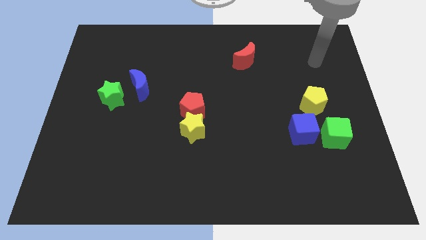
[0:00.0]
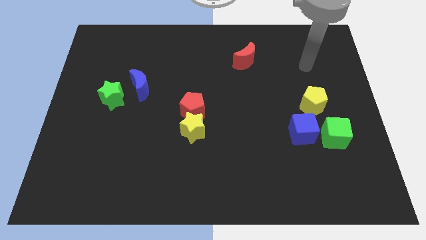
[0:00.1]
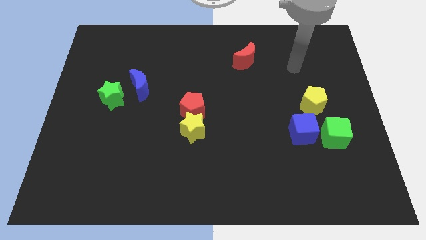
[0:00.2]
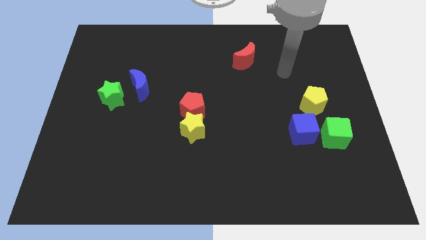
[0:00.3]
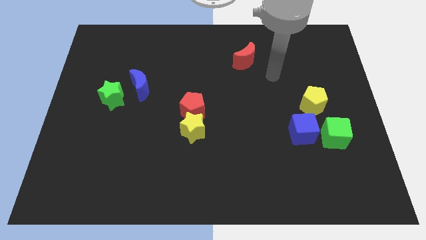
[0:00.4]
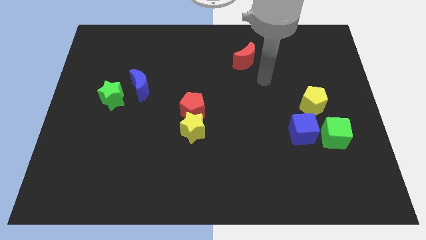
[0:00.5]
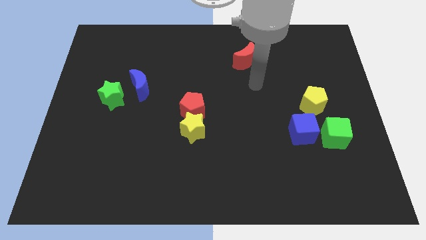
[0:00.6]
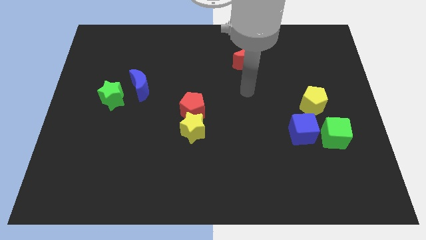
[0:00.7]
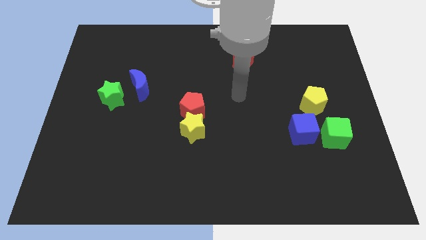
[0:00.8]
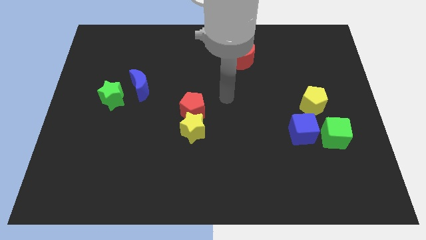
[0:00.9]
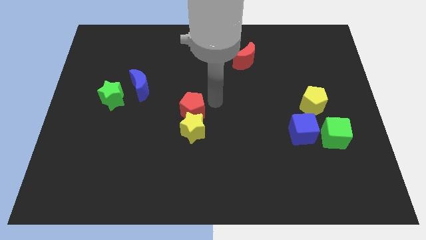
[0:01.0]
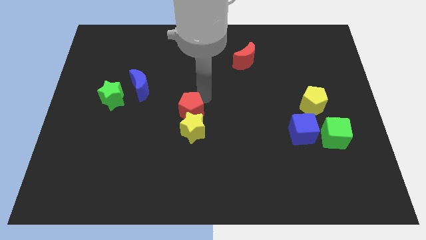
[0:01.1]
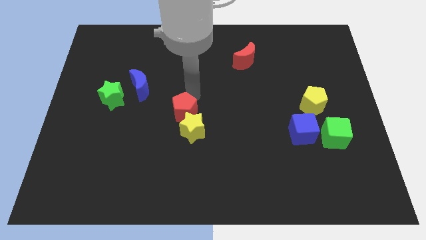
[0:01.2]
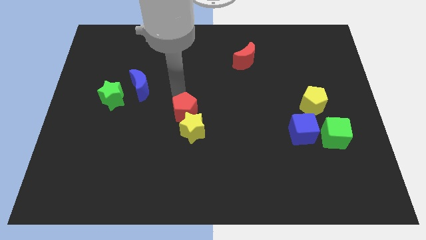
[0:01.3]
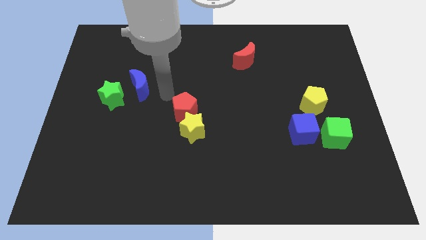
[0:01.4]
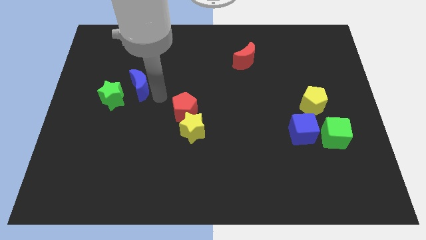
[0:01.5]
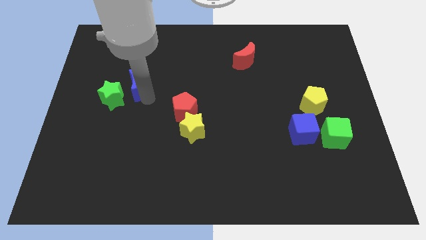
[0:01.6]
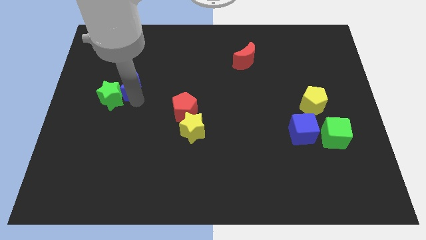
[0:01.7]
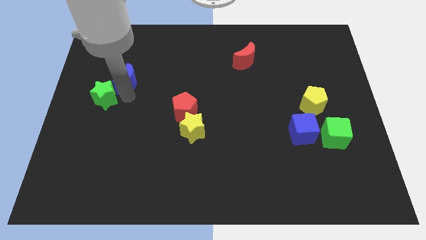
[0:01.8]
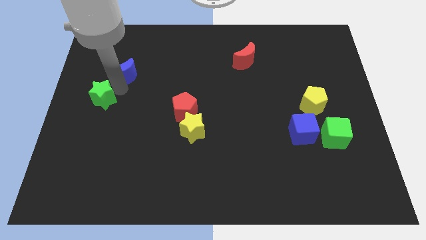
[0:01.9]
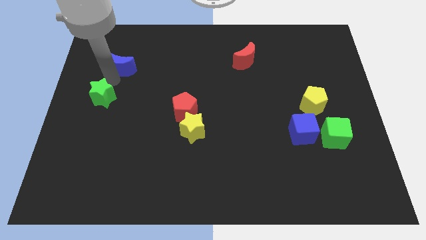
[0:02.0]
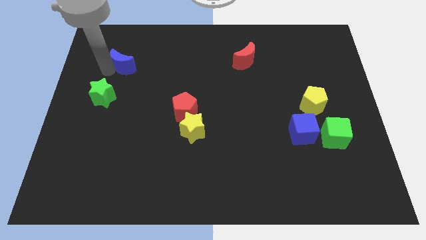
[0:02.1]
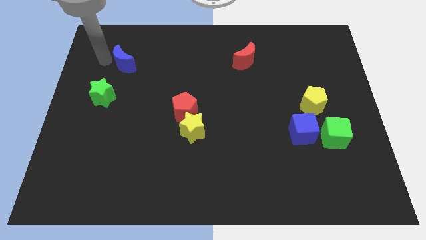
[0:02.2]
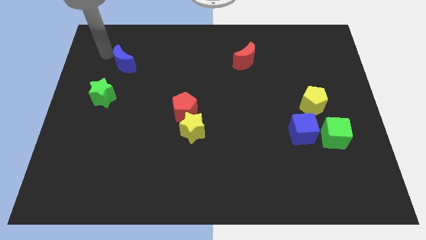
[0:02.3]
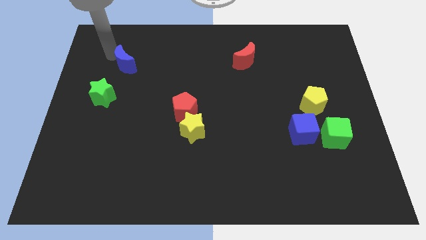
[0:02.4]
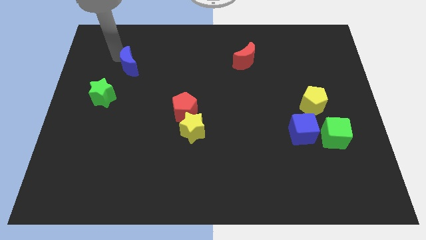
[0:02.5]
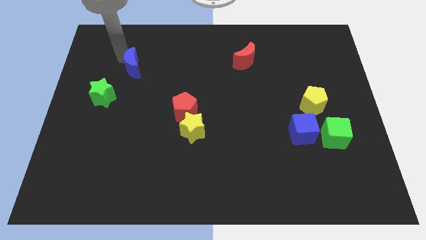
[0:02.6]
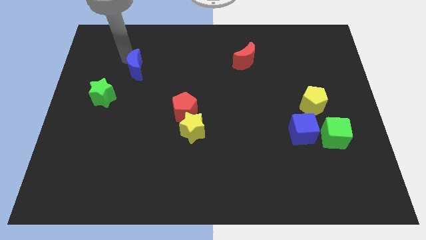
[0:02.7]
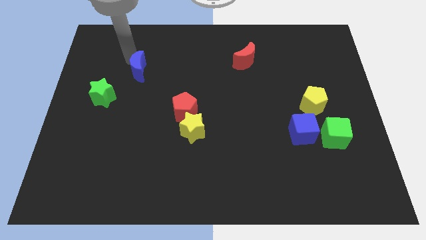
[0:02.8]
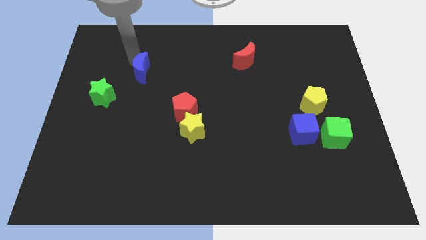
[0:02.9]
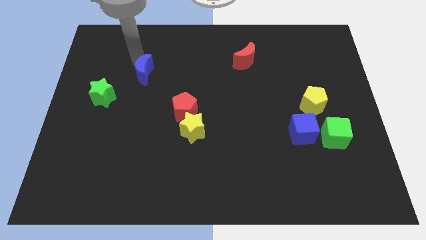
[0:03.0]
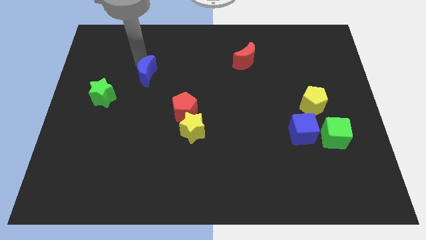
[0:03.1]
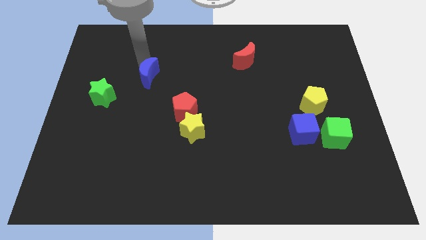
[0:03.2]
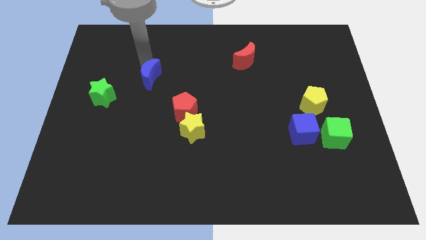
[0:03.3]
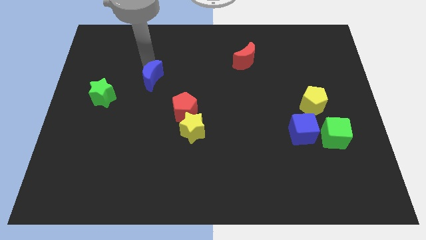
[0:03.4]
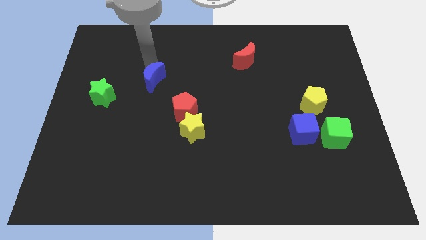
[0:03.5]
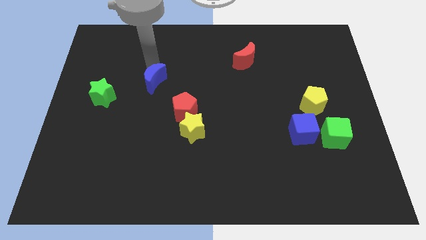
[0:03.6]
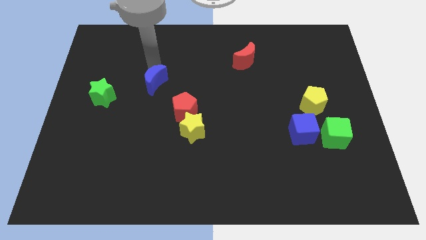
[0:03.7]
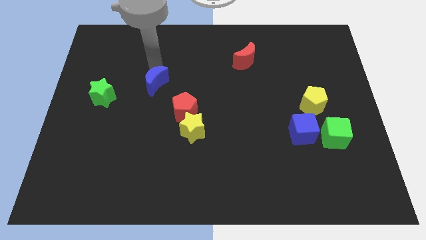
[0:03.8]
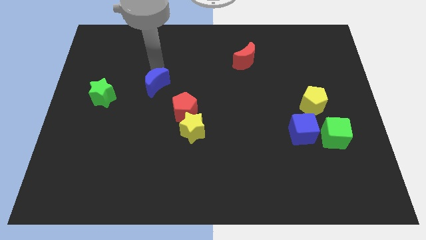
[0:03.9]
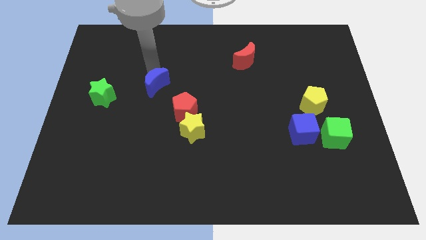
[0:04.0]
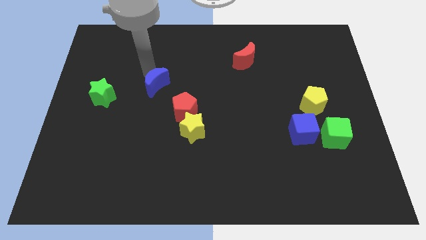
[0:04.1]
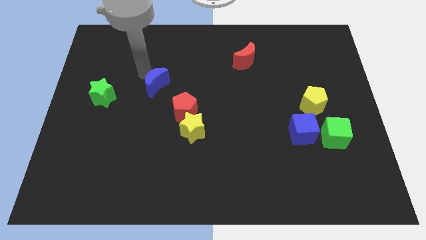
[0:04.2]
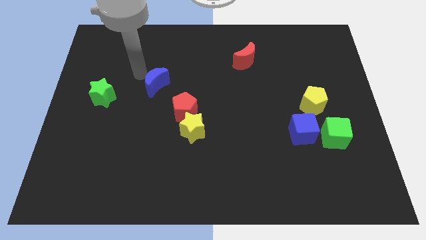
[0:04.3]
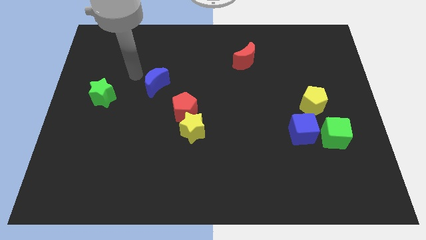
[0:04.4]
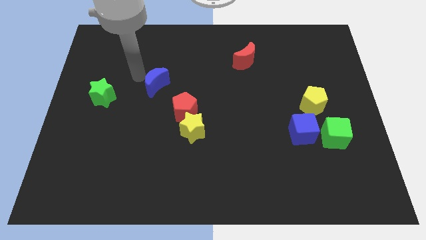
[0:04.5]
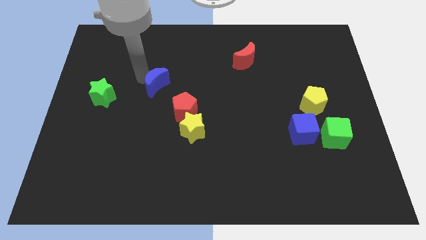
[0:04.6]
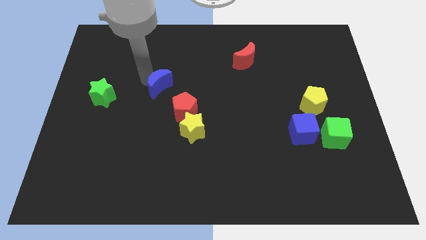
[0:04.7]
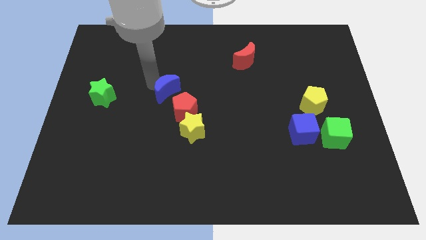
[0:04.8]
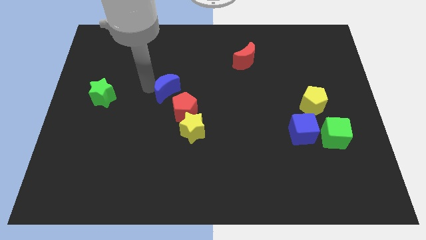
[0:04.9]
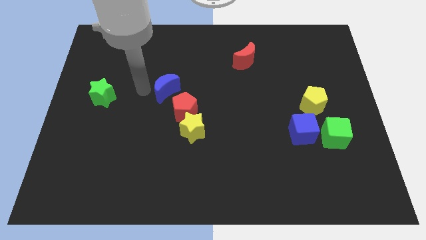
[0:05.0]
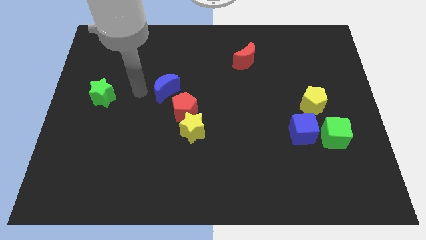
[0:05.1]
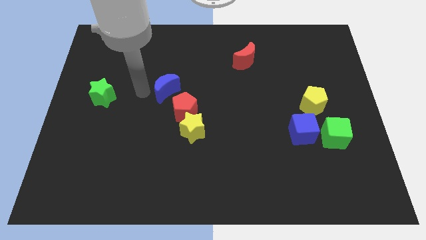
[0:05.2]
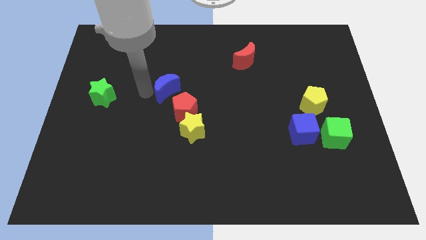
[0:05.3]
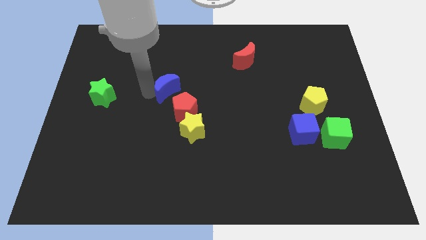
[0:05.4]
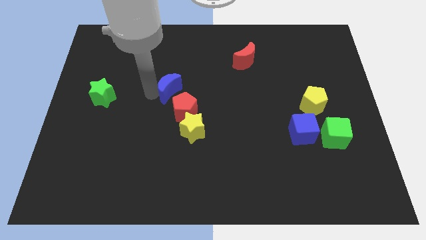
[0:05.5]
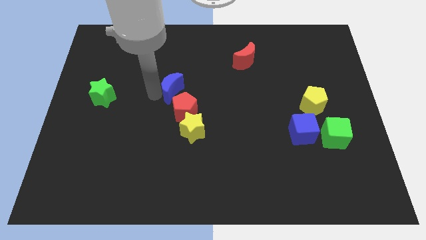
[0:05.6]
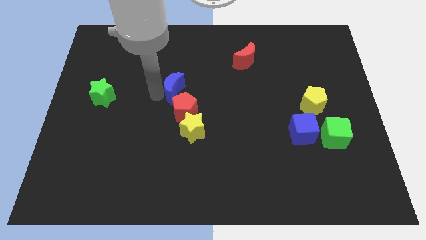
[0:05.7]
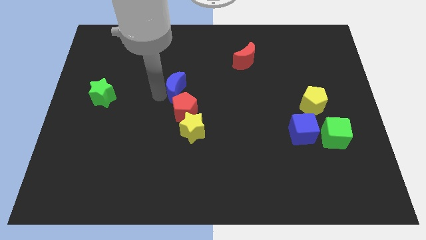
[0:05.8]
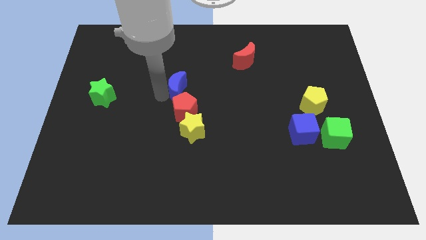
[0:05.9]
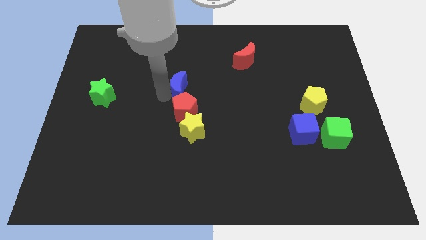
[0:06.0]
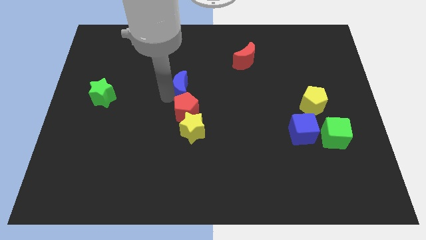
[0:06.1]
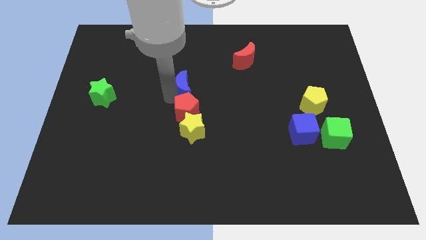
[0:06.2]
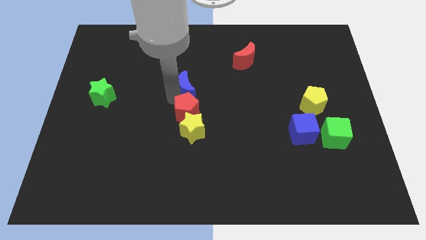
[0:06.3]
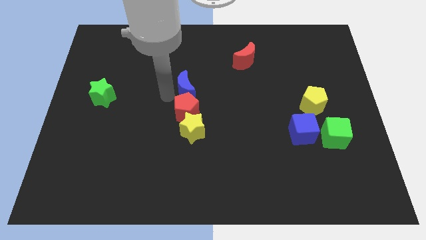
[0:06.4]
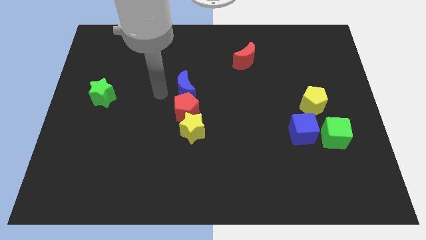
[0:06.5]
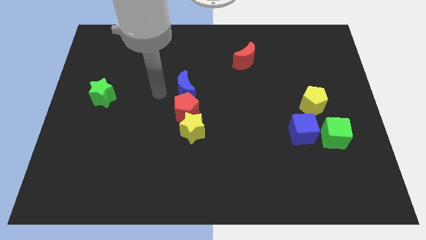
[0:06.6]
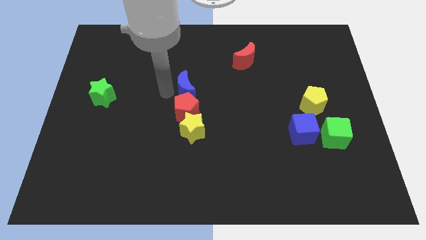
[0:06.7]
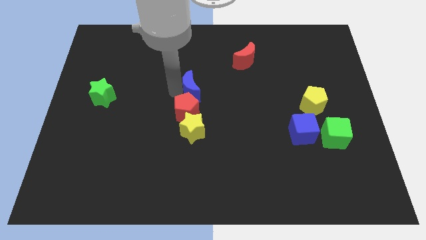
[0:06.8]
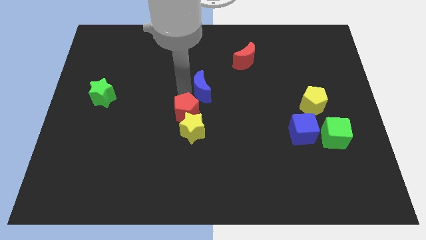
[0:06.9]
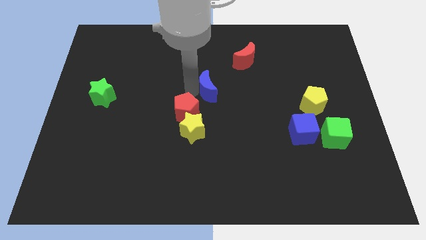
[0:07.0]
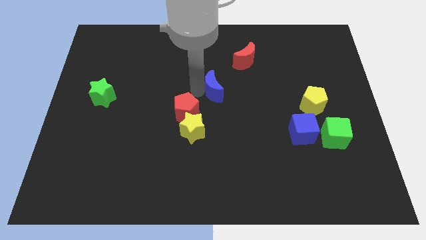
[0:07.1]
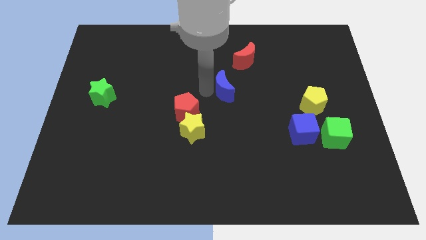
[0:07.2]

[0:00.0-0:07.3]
slide the blue moon to the right
